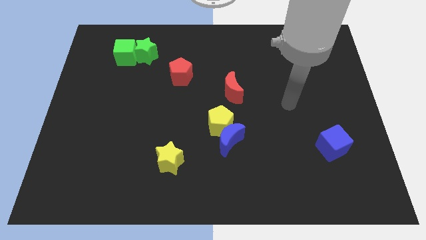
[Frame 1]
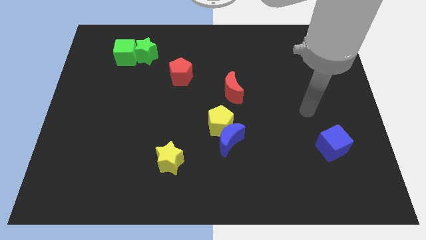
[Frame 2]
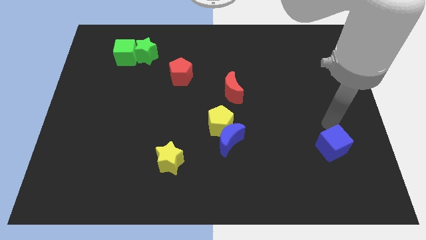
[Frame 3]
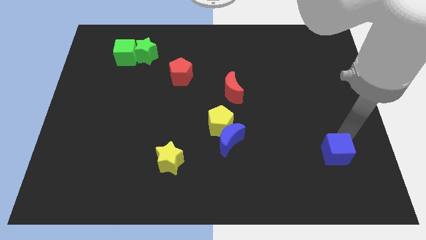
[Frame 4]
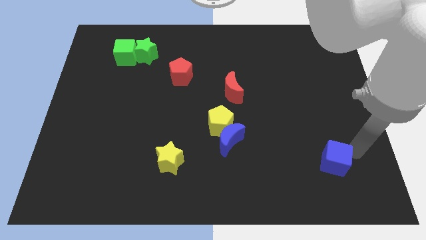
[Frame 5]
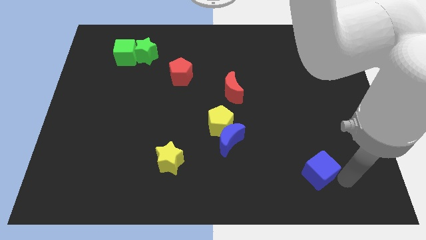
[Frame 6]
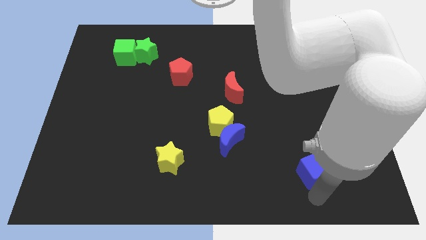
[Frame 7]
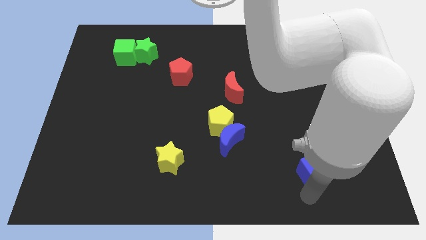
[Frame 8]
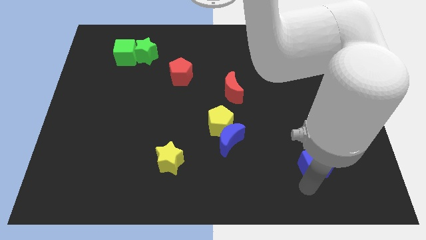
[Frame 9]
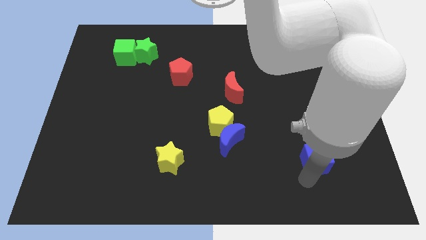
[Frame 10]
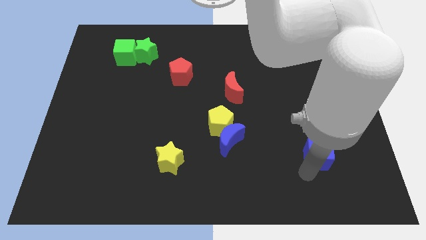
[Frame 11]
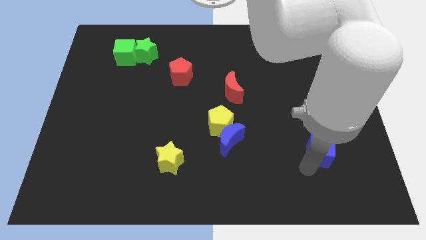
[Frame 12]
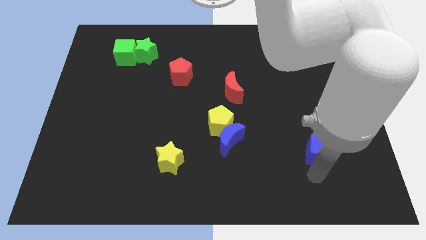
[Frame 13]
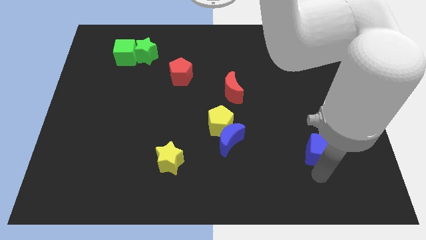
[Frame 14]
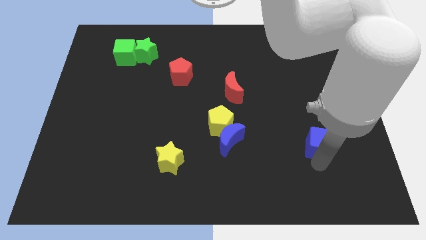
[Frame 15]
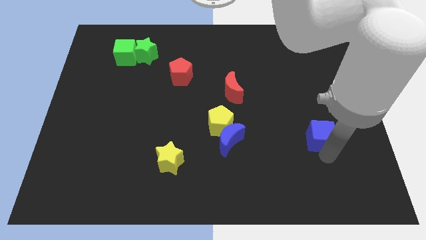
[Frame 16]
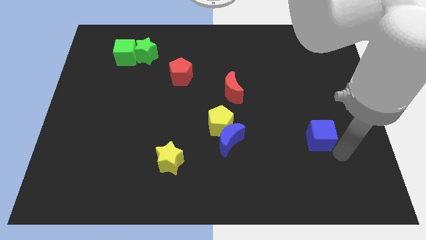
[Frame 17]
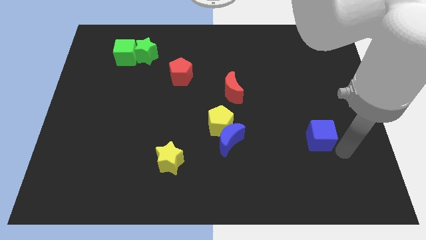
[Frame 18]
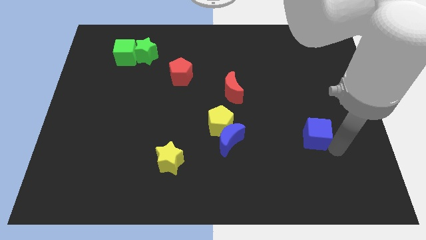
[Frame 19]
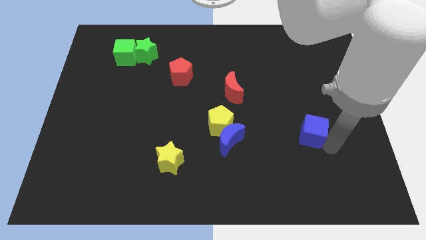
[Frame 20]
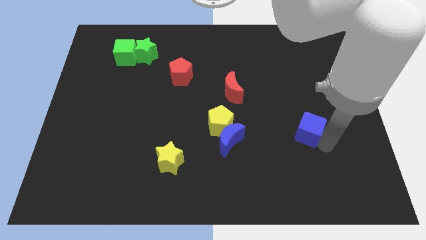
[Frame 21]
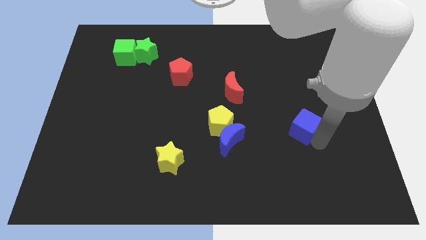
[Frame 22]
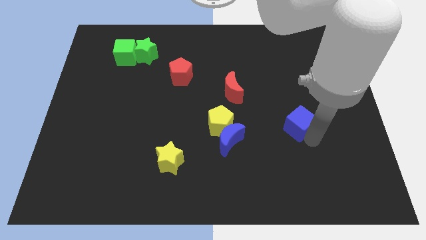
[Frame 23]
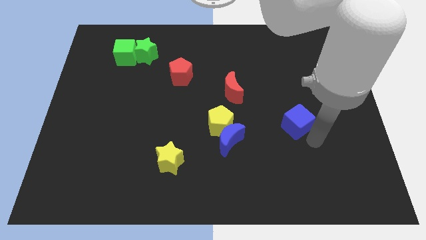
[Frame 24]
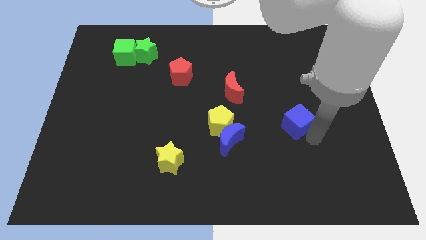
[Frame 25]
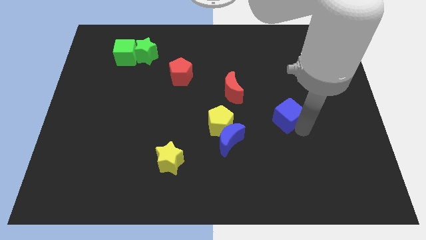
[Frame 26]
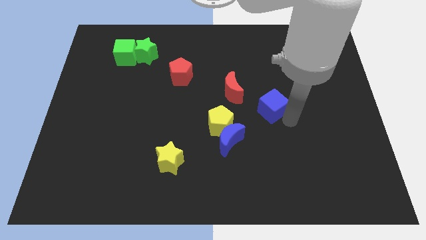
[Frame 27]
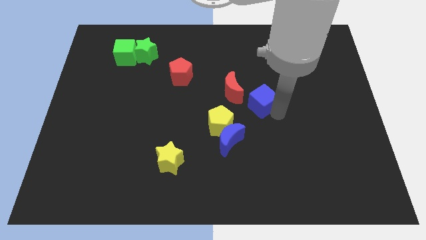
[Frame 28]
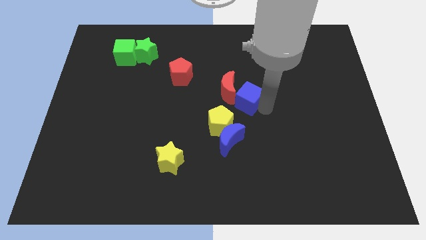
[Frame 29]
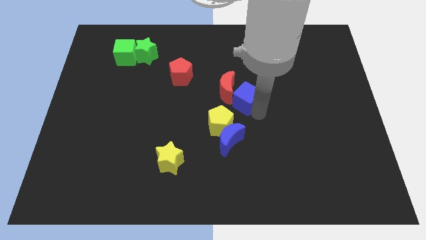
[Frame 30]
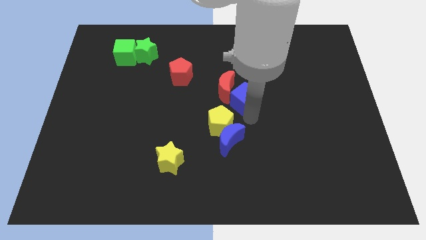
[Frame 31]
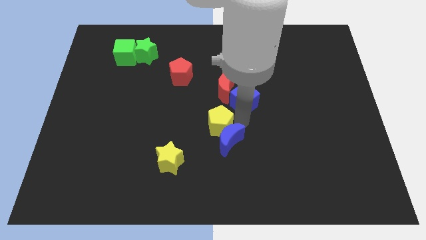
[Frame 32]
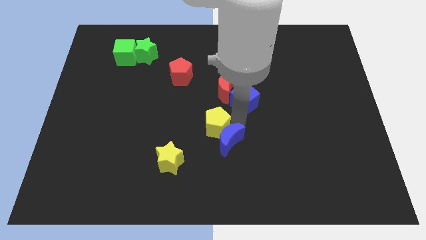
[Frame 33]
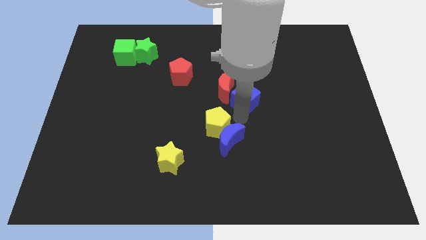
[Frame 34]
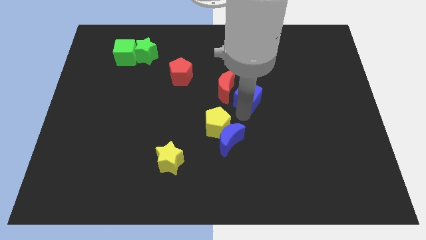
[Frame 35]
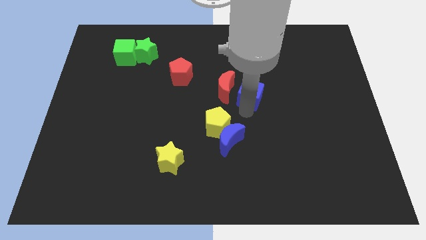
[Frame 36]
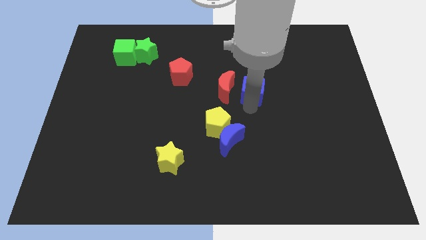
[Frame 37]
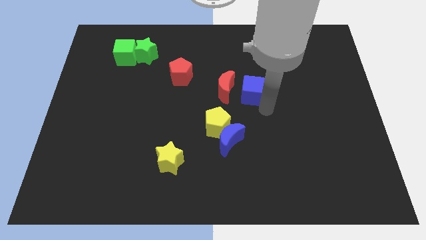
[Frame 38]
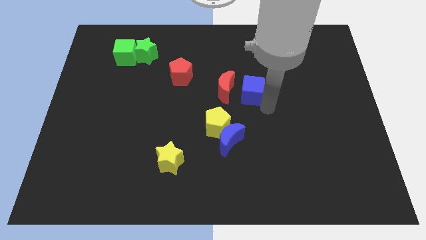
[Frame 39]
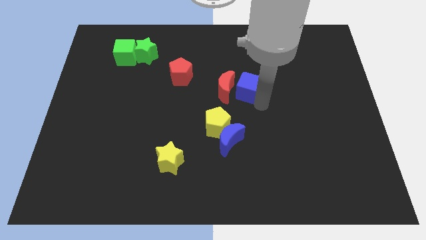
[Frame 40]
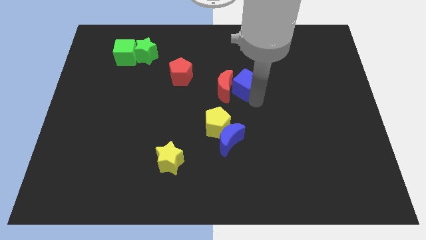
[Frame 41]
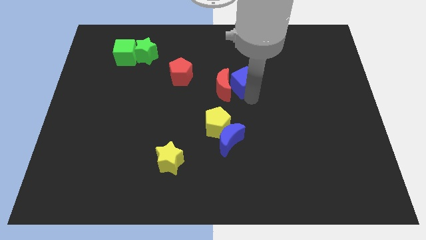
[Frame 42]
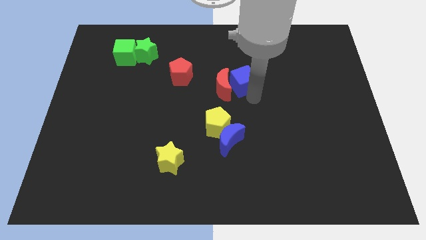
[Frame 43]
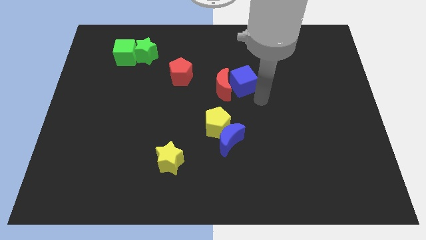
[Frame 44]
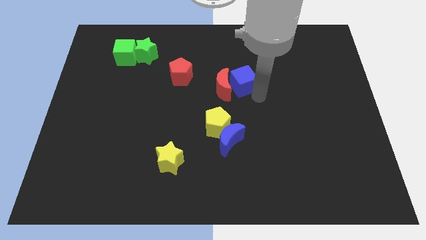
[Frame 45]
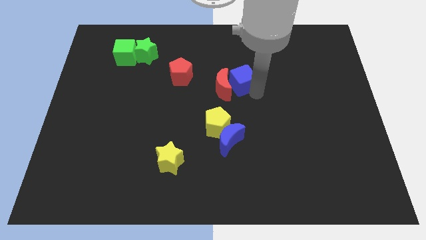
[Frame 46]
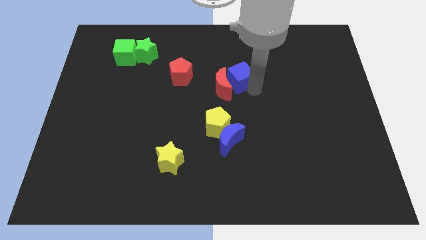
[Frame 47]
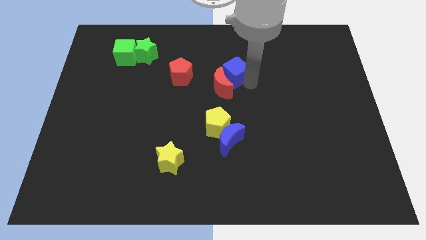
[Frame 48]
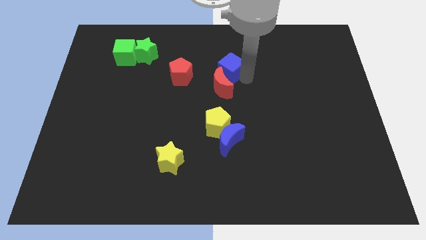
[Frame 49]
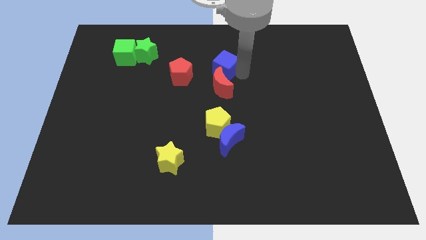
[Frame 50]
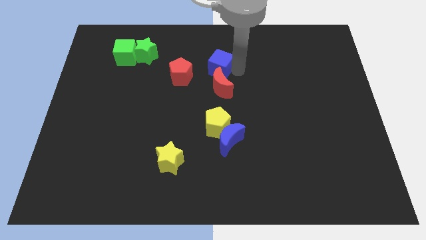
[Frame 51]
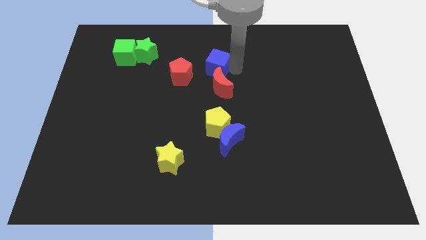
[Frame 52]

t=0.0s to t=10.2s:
push the blue cube diagonally up and to the right of the red pentagon

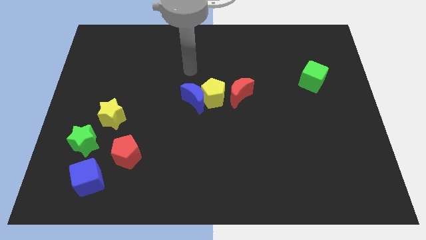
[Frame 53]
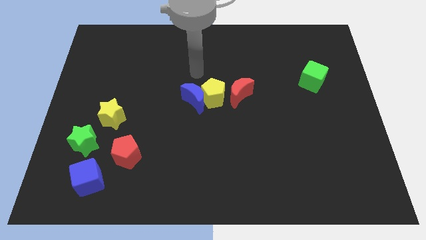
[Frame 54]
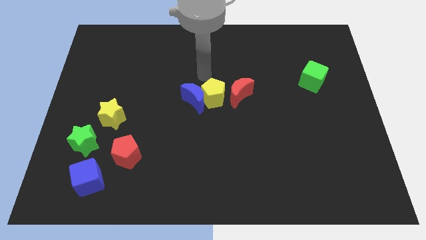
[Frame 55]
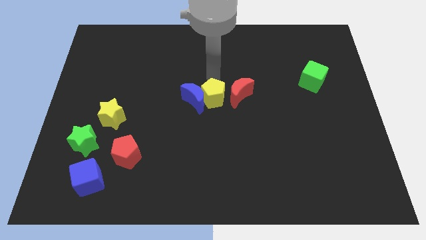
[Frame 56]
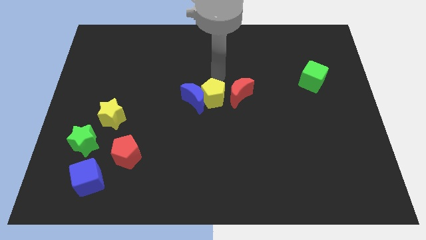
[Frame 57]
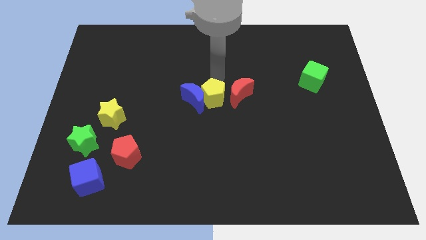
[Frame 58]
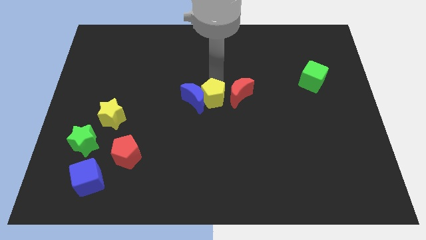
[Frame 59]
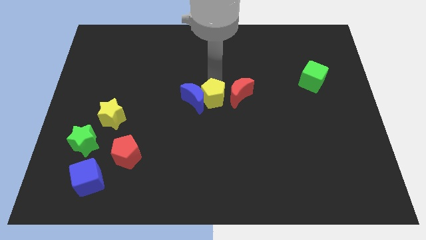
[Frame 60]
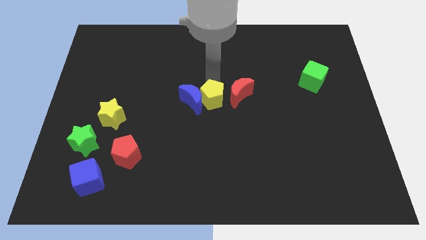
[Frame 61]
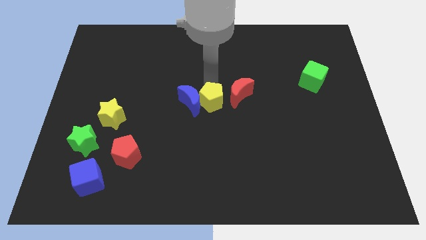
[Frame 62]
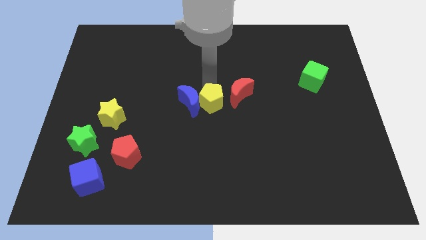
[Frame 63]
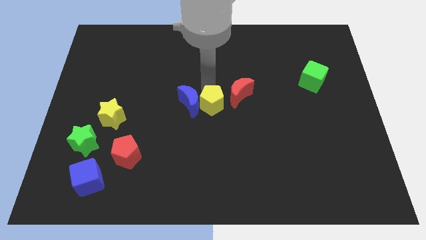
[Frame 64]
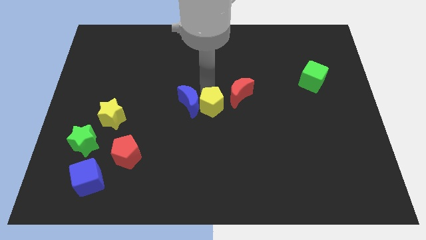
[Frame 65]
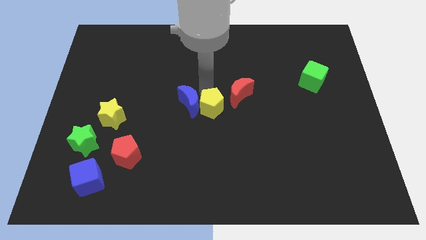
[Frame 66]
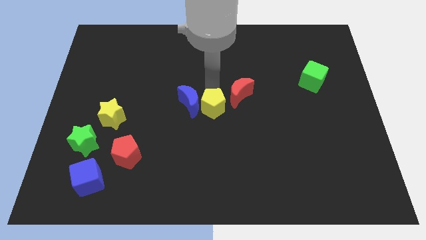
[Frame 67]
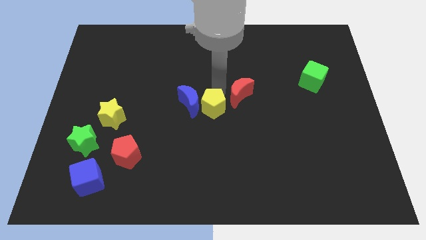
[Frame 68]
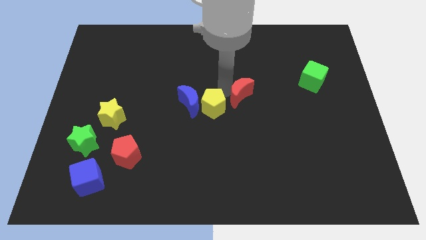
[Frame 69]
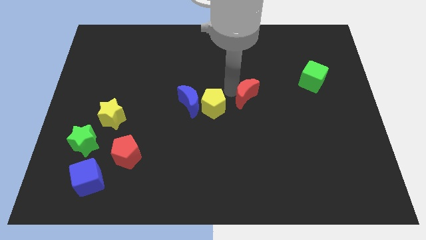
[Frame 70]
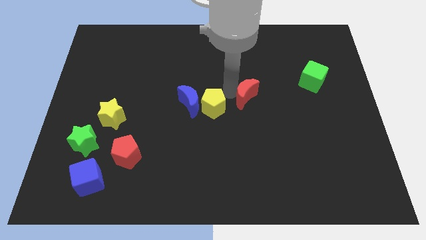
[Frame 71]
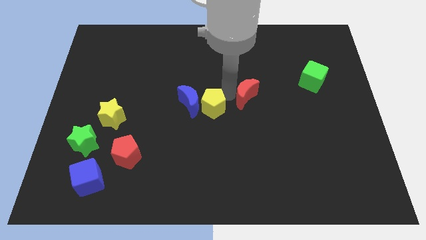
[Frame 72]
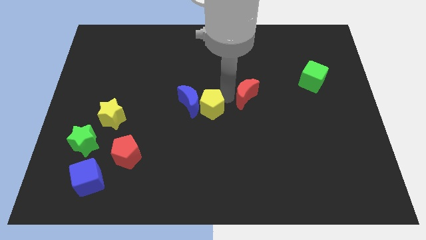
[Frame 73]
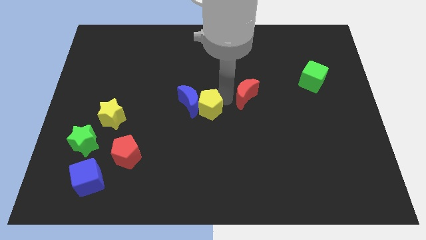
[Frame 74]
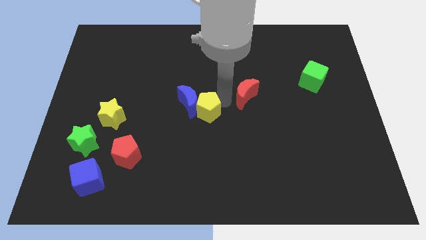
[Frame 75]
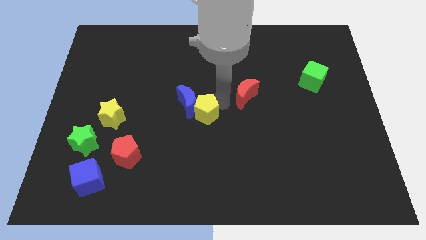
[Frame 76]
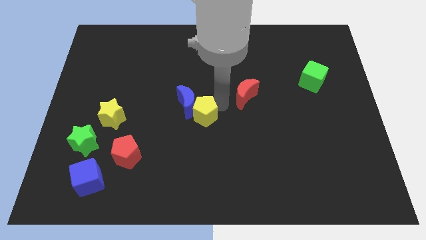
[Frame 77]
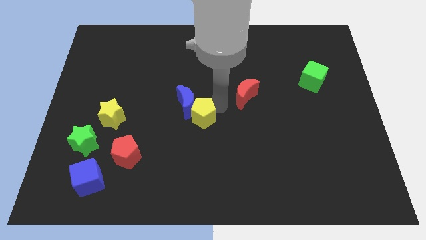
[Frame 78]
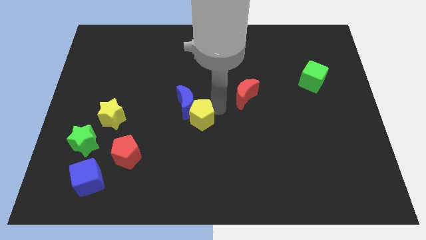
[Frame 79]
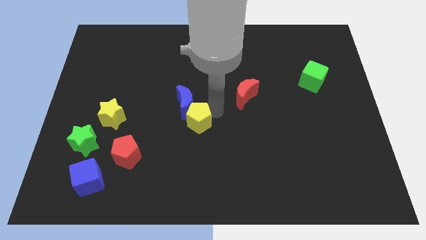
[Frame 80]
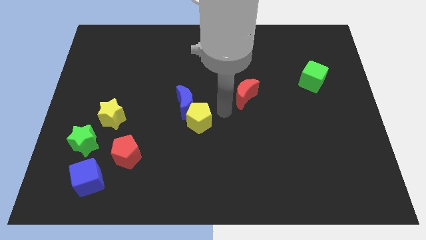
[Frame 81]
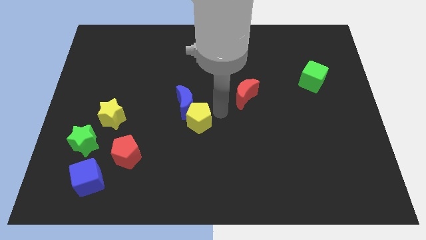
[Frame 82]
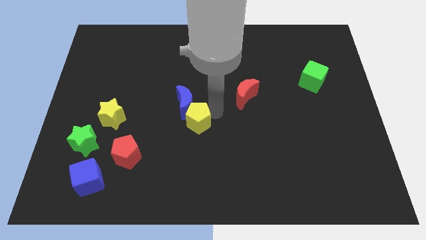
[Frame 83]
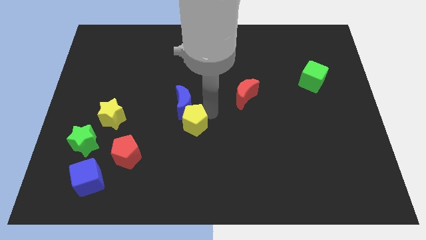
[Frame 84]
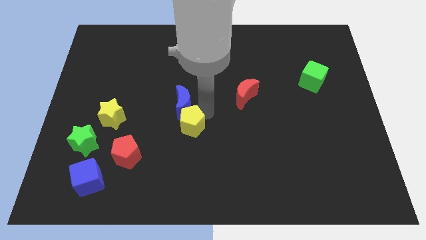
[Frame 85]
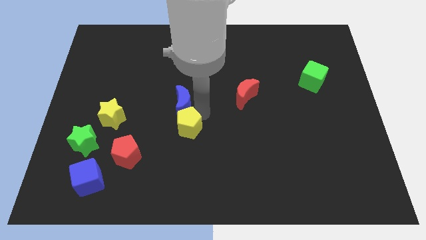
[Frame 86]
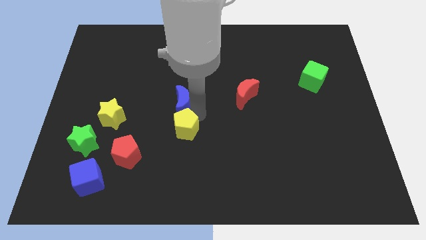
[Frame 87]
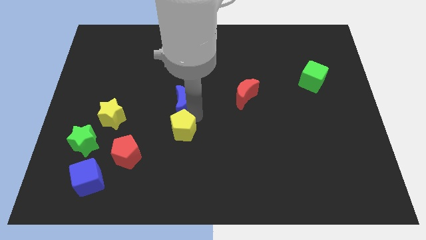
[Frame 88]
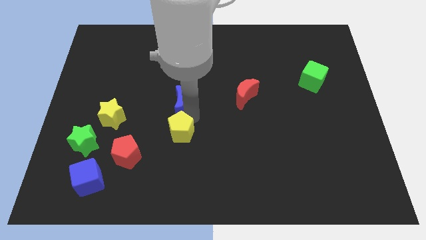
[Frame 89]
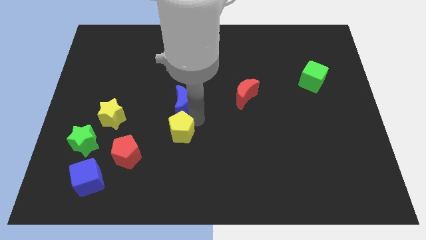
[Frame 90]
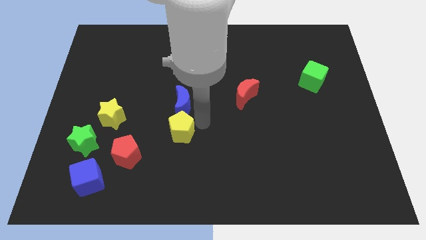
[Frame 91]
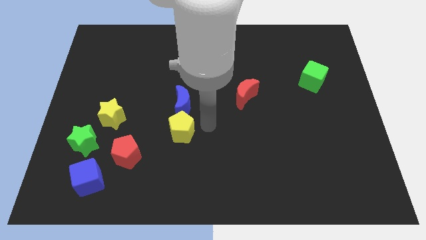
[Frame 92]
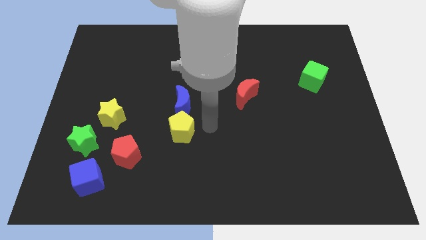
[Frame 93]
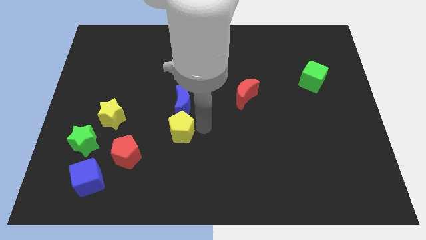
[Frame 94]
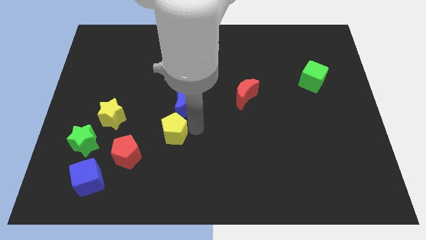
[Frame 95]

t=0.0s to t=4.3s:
move the yellow pentagon diagonally up and to the right of the red pentagon
